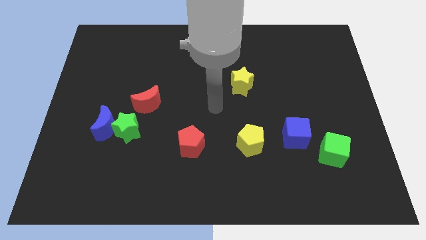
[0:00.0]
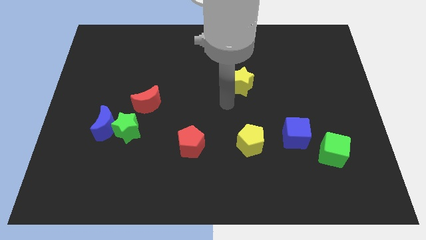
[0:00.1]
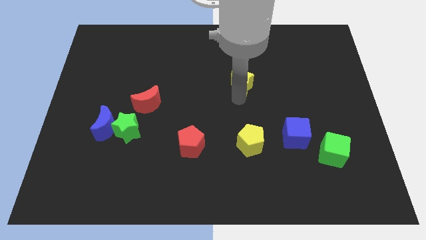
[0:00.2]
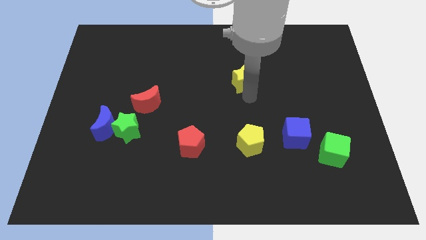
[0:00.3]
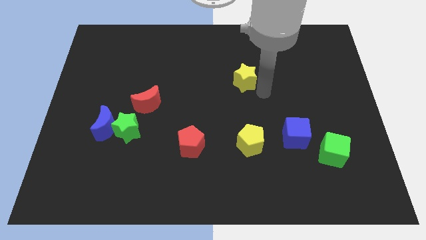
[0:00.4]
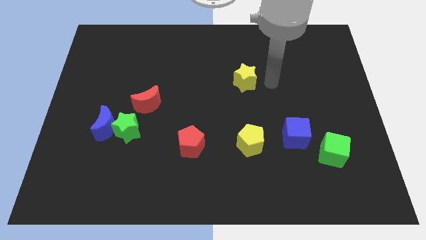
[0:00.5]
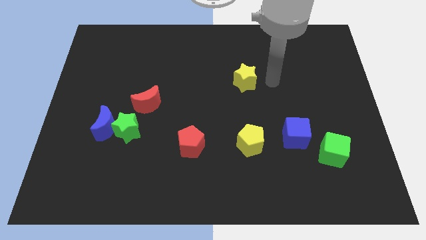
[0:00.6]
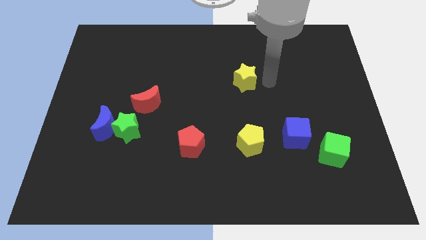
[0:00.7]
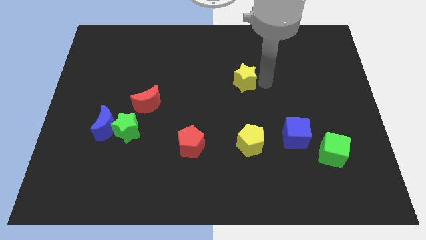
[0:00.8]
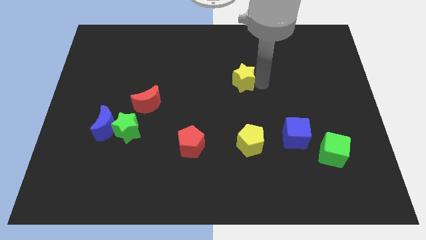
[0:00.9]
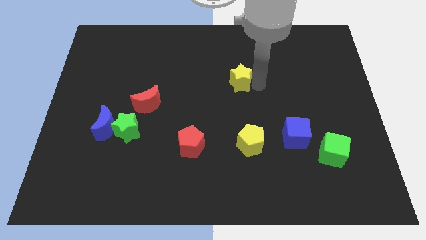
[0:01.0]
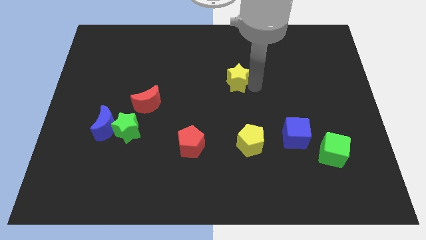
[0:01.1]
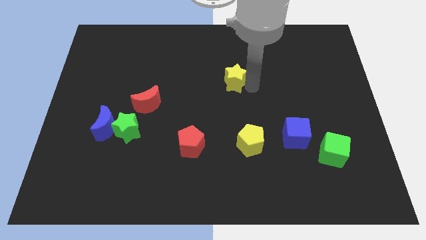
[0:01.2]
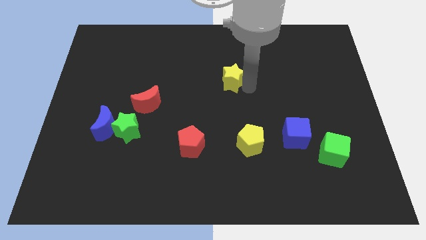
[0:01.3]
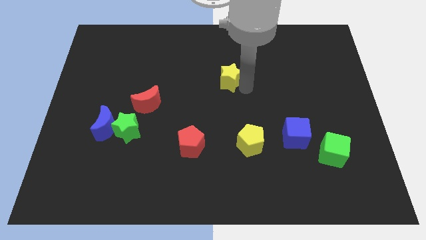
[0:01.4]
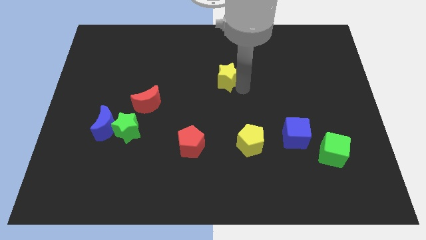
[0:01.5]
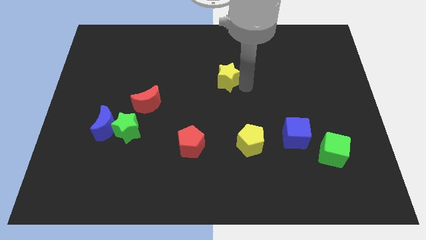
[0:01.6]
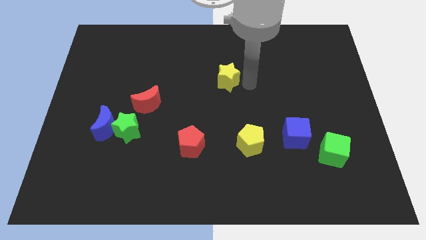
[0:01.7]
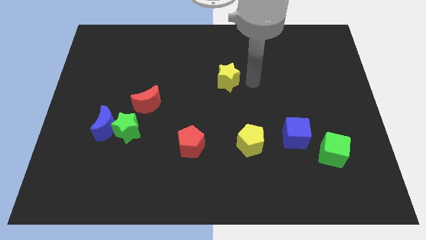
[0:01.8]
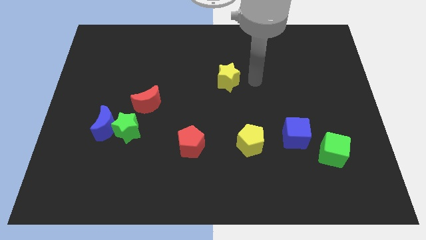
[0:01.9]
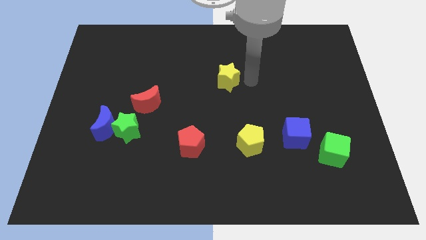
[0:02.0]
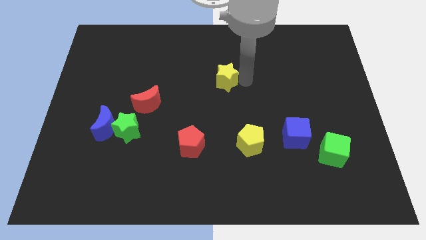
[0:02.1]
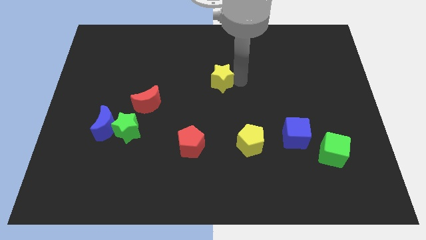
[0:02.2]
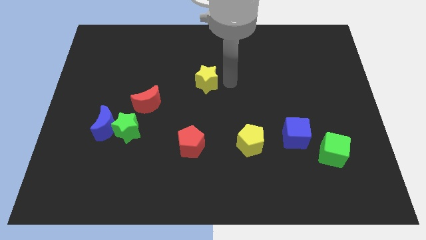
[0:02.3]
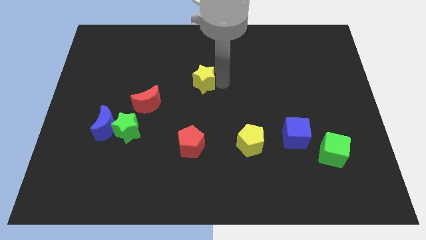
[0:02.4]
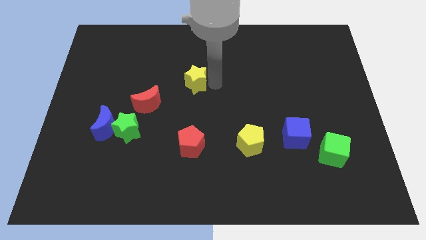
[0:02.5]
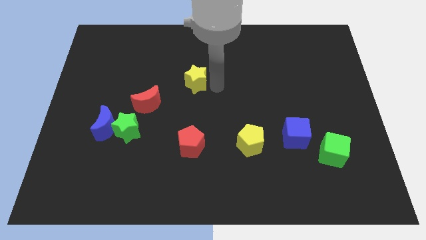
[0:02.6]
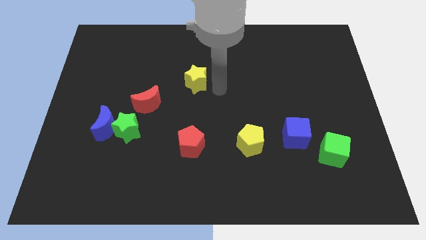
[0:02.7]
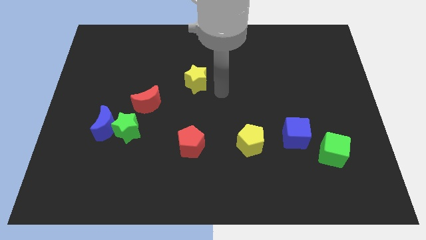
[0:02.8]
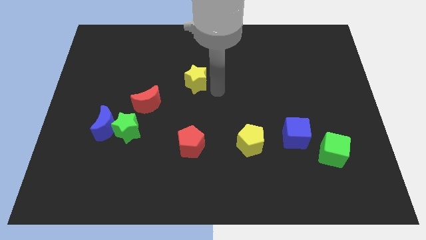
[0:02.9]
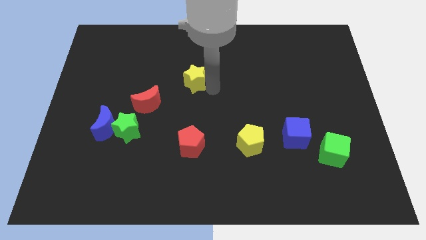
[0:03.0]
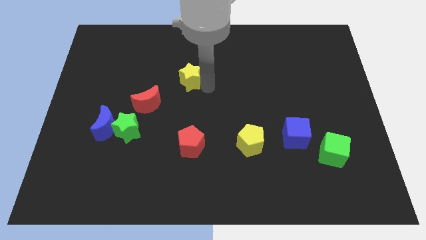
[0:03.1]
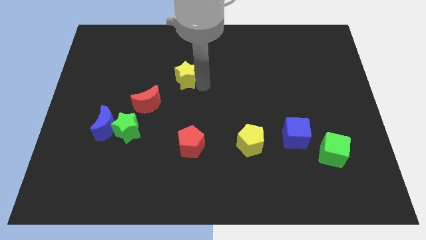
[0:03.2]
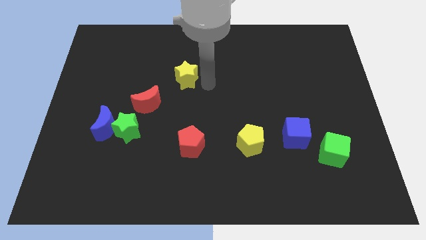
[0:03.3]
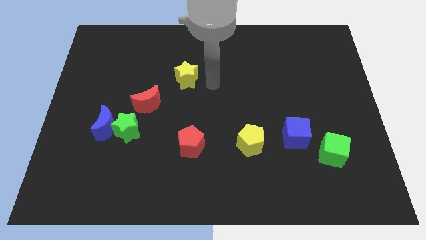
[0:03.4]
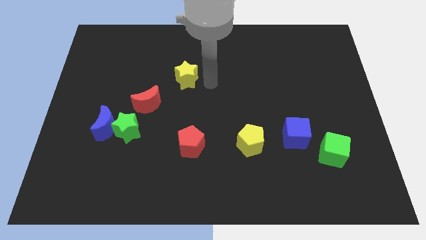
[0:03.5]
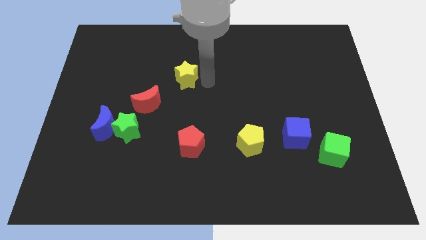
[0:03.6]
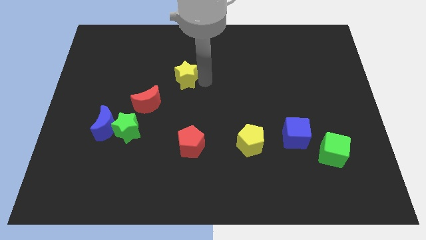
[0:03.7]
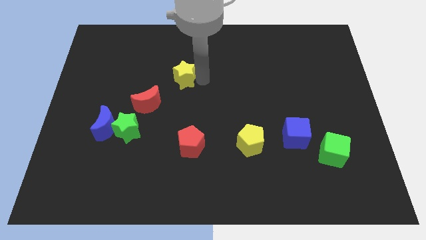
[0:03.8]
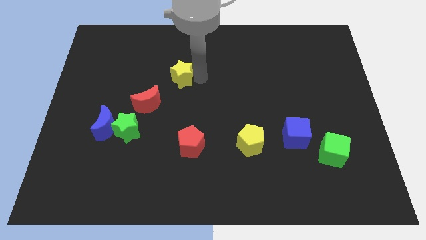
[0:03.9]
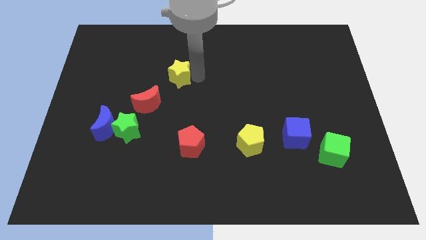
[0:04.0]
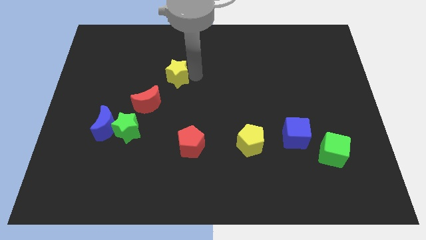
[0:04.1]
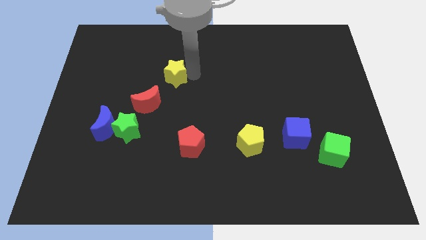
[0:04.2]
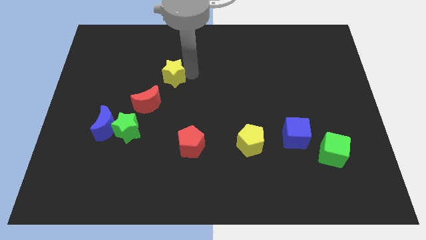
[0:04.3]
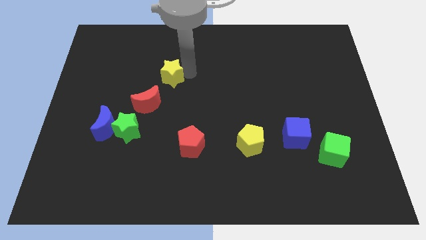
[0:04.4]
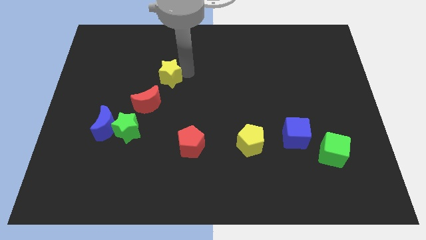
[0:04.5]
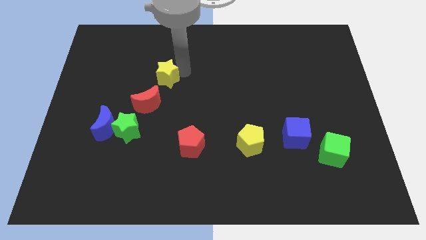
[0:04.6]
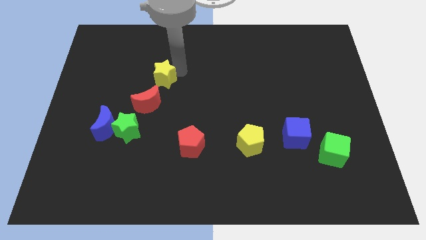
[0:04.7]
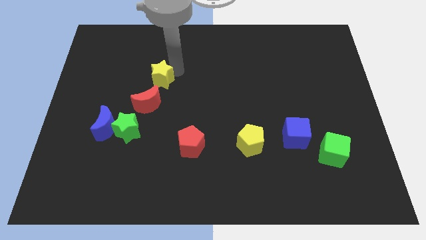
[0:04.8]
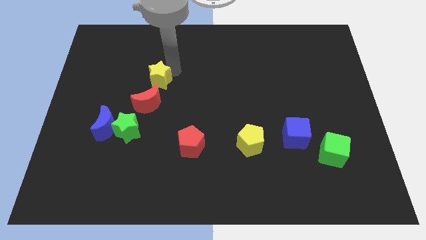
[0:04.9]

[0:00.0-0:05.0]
push the yellow star to the left

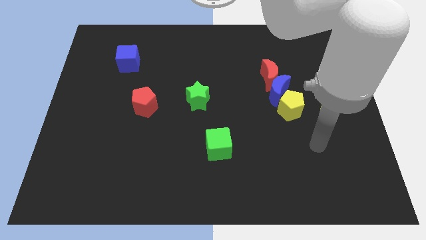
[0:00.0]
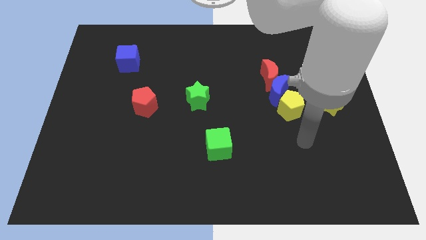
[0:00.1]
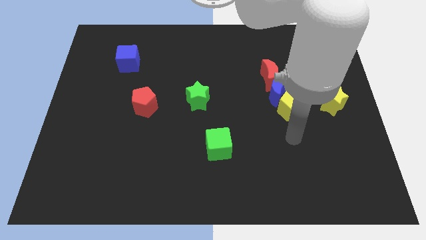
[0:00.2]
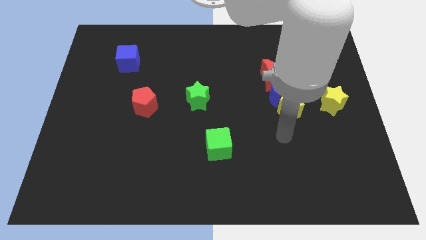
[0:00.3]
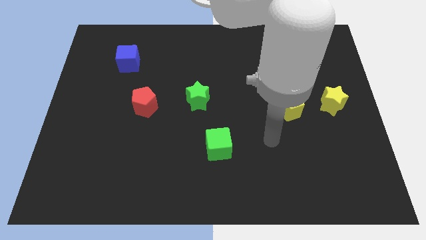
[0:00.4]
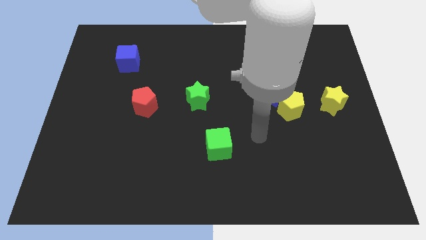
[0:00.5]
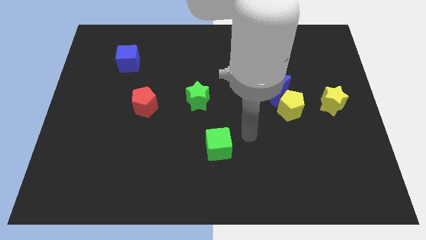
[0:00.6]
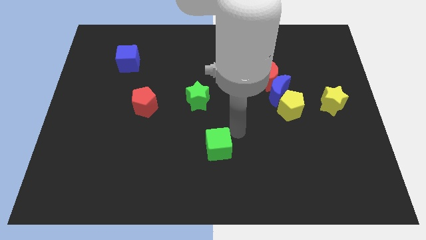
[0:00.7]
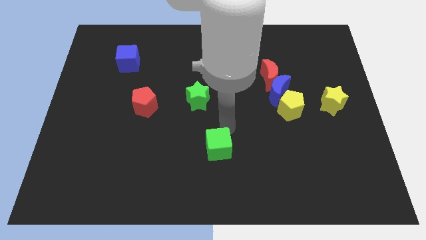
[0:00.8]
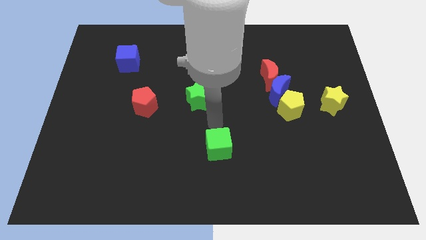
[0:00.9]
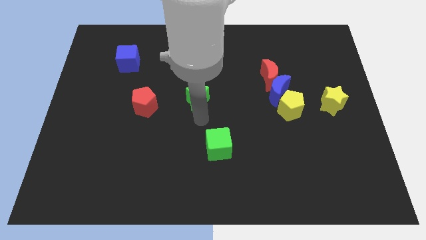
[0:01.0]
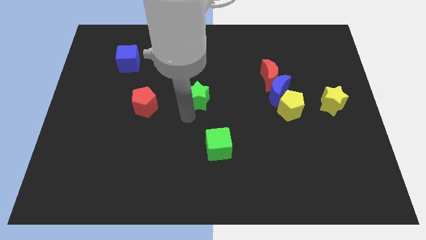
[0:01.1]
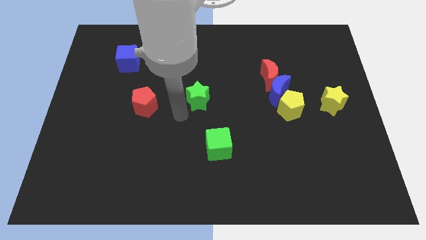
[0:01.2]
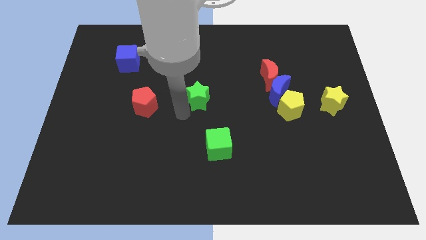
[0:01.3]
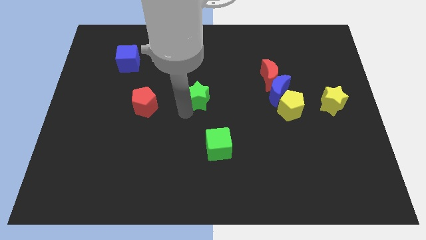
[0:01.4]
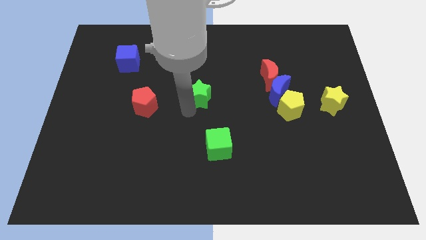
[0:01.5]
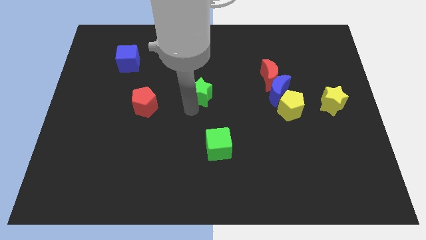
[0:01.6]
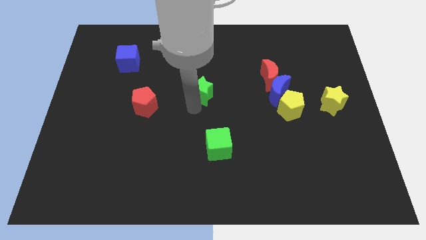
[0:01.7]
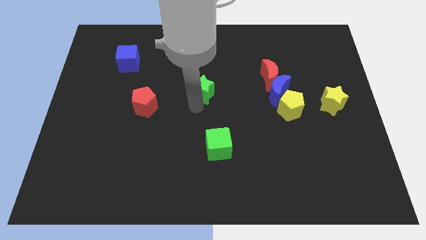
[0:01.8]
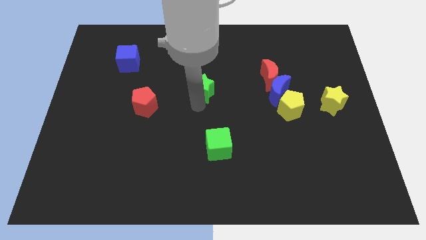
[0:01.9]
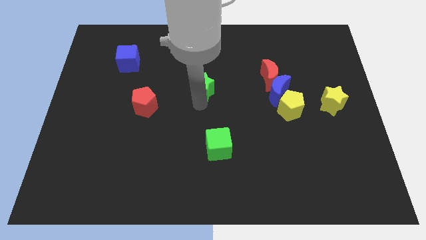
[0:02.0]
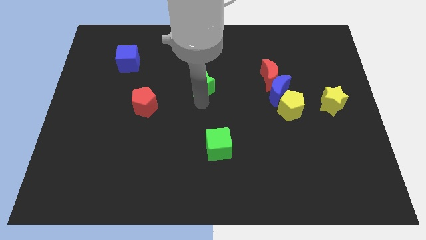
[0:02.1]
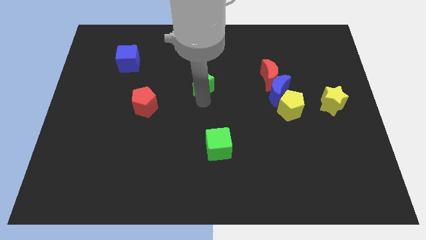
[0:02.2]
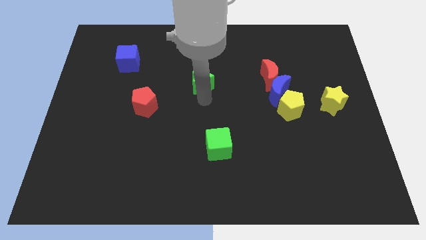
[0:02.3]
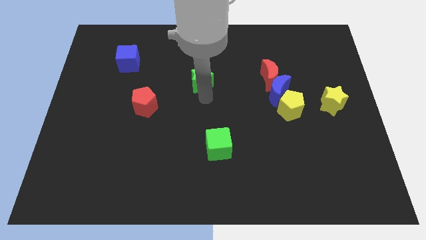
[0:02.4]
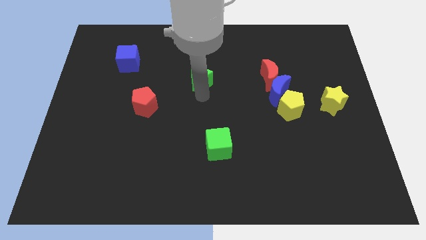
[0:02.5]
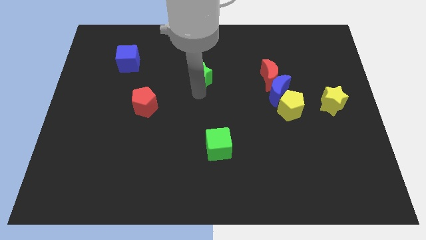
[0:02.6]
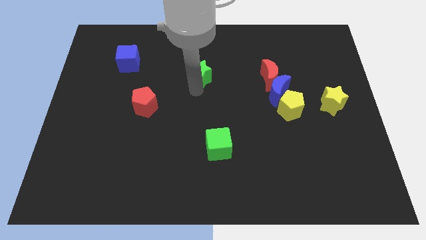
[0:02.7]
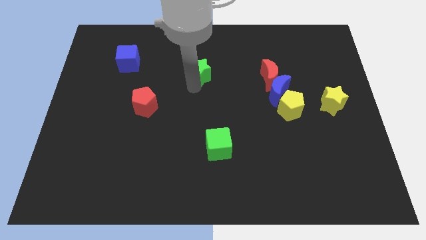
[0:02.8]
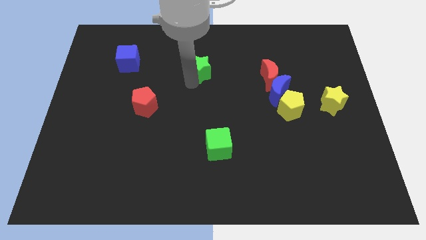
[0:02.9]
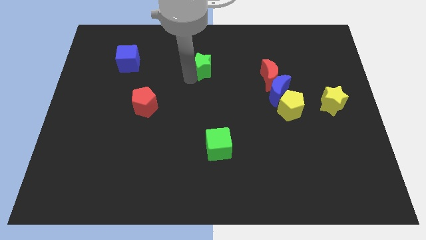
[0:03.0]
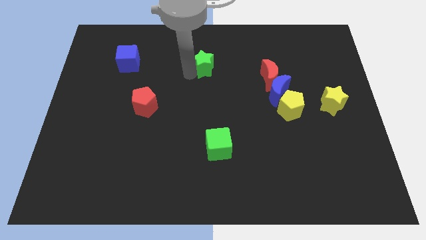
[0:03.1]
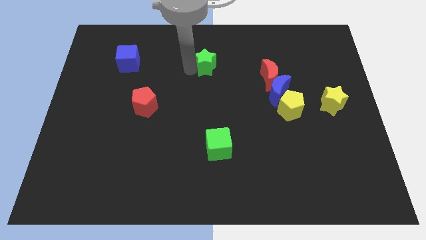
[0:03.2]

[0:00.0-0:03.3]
push the green star a little up and then to the right

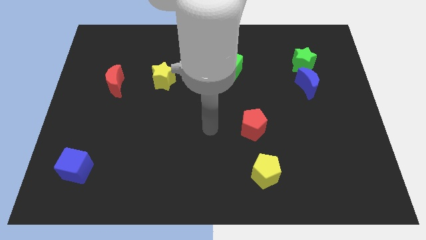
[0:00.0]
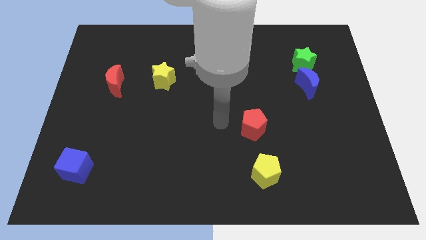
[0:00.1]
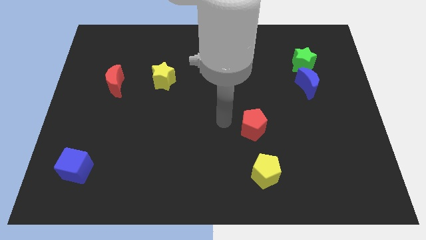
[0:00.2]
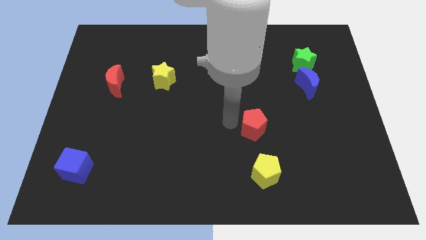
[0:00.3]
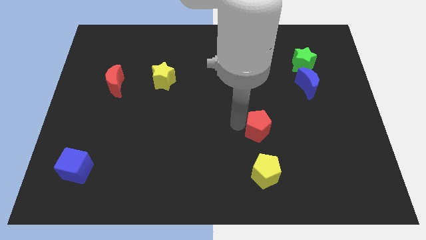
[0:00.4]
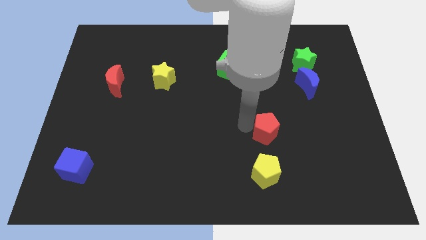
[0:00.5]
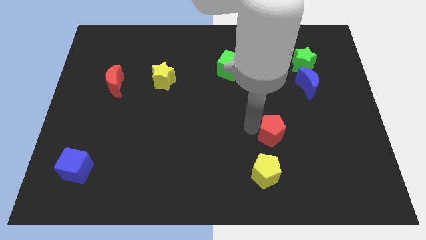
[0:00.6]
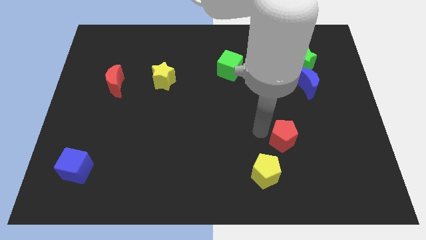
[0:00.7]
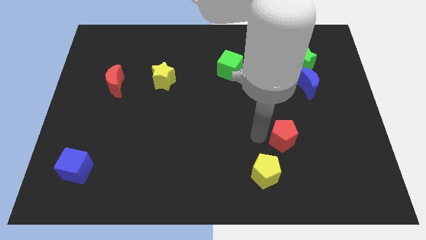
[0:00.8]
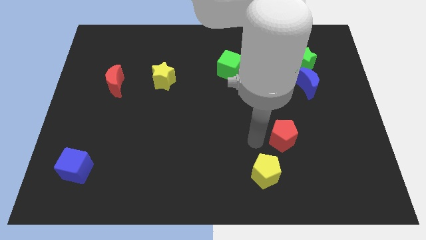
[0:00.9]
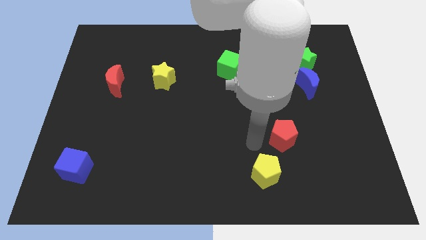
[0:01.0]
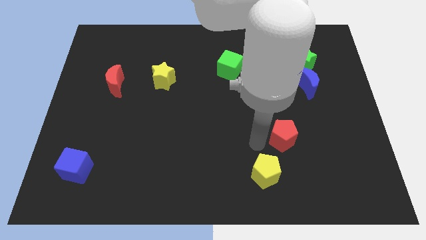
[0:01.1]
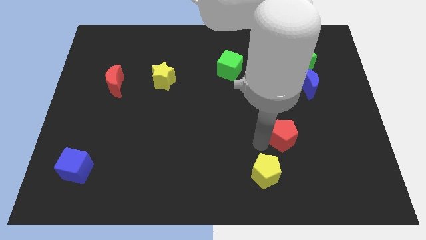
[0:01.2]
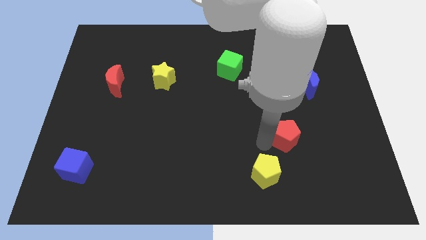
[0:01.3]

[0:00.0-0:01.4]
move the red pentagon a little to the right
